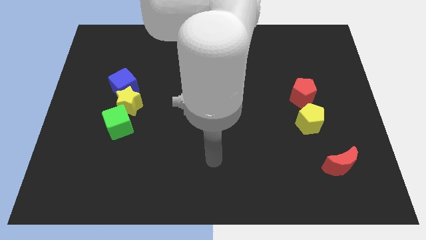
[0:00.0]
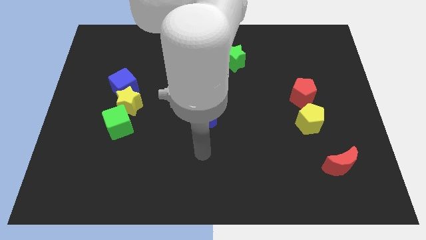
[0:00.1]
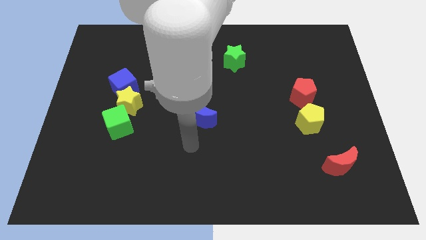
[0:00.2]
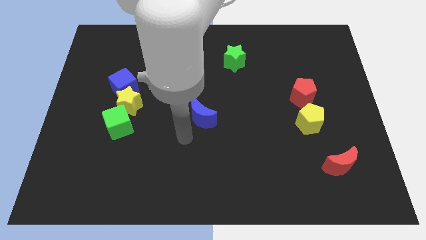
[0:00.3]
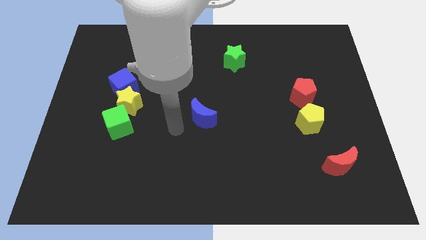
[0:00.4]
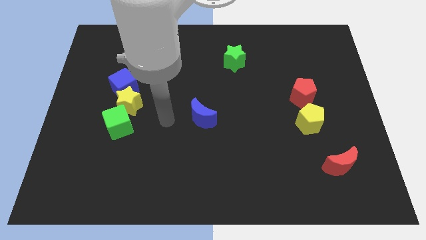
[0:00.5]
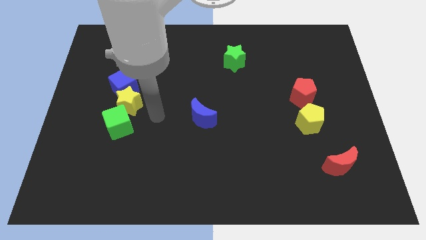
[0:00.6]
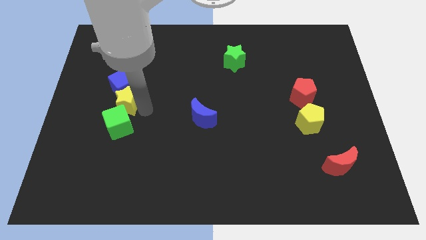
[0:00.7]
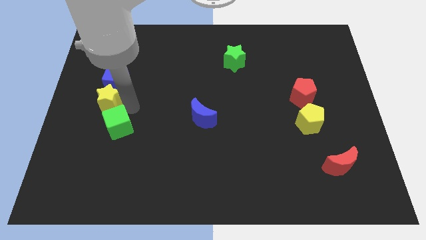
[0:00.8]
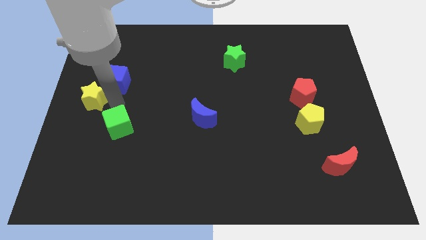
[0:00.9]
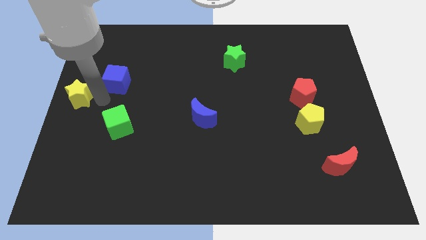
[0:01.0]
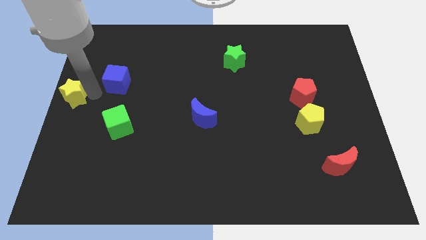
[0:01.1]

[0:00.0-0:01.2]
pull the blue cube apart from the yellow star

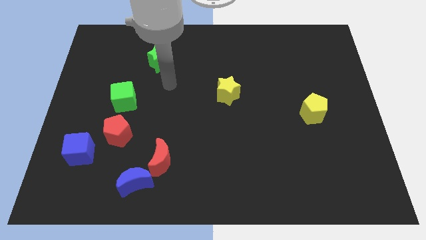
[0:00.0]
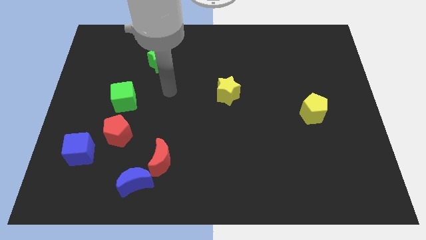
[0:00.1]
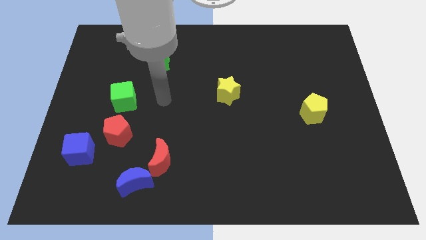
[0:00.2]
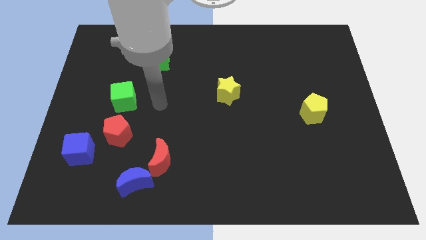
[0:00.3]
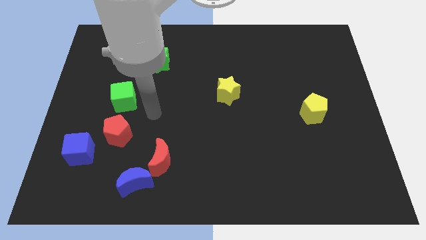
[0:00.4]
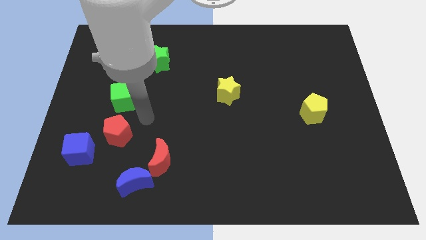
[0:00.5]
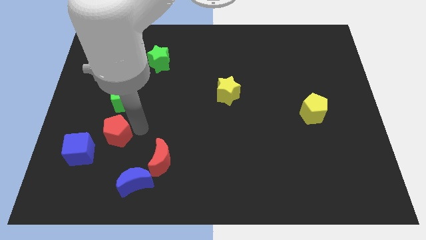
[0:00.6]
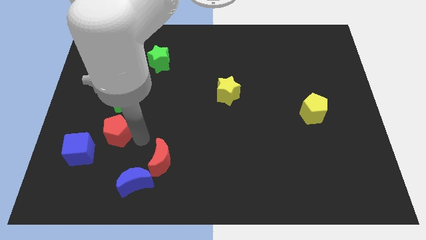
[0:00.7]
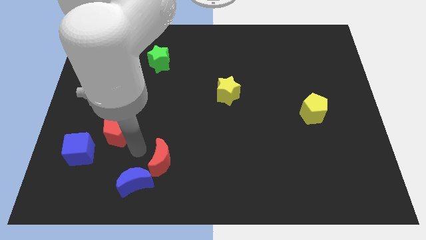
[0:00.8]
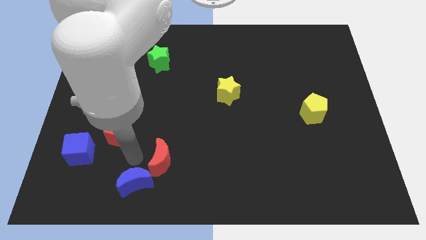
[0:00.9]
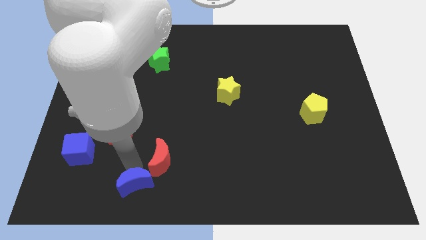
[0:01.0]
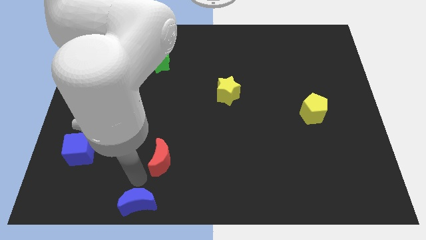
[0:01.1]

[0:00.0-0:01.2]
move the red moon away from the blue moon

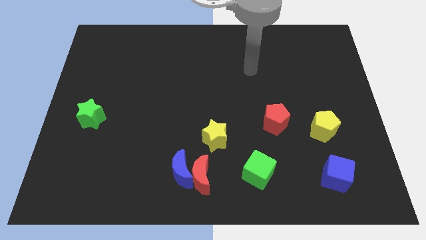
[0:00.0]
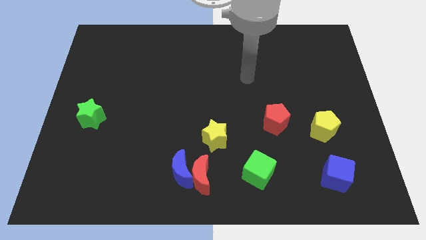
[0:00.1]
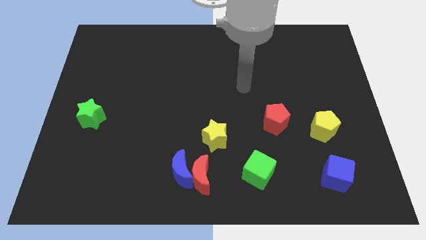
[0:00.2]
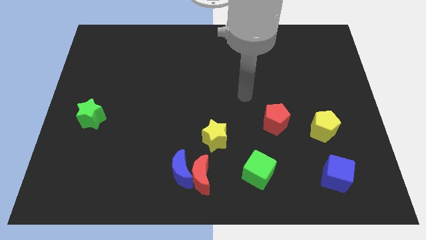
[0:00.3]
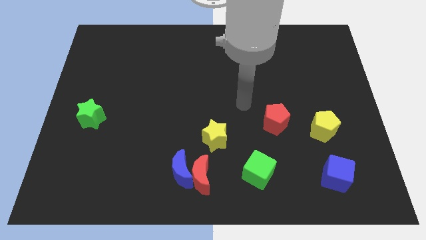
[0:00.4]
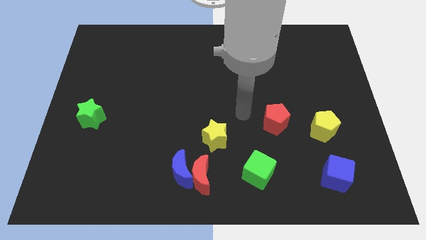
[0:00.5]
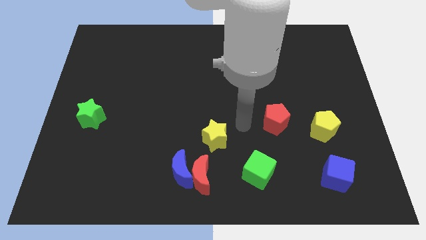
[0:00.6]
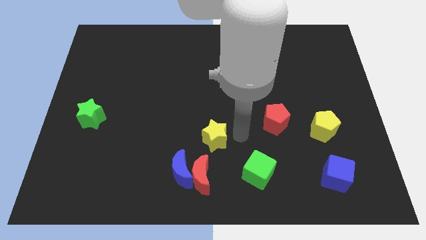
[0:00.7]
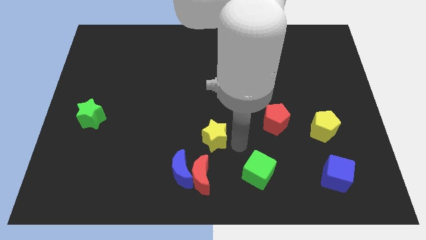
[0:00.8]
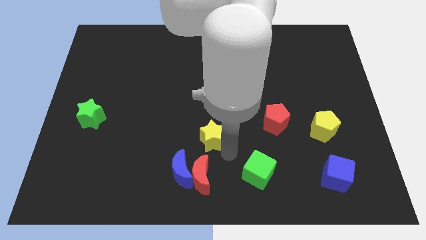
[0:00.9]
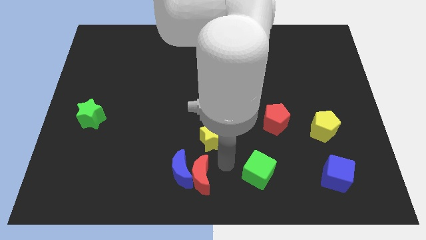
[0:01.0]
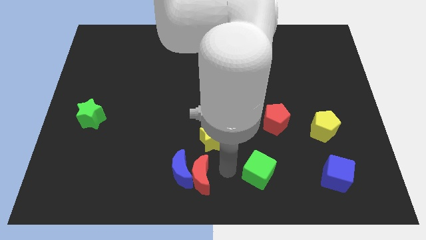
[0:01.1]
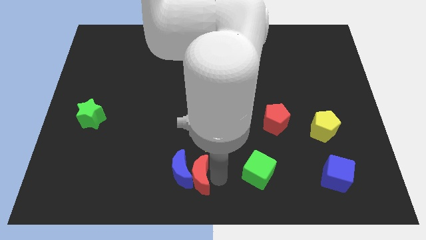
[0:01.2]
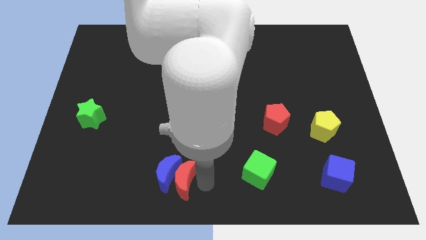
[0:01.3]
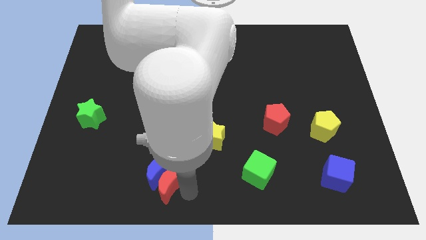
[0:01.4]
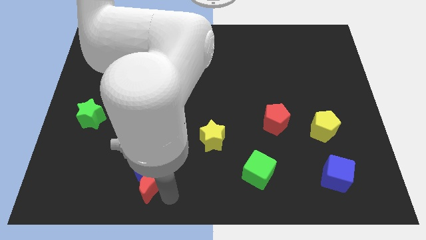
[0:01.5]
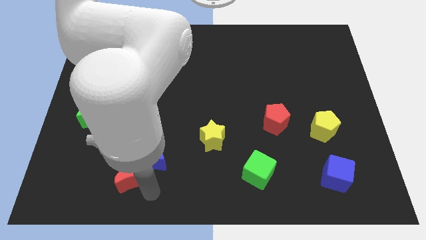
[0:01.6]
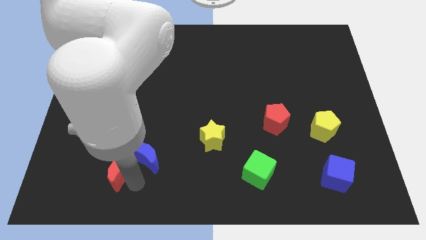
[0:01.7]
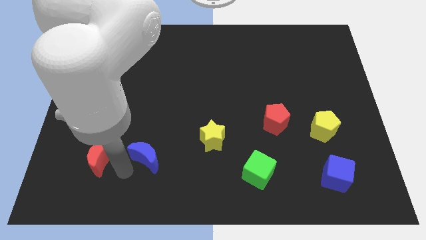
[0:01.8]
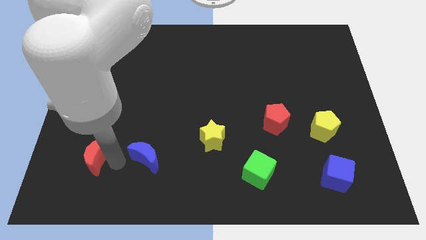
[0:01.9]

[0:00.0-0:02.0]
pull the blue moon apart from the red moon

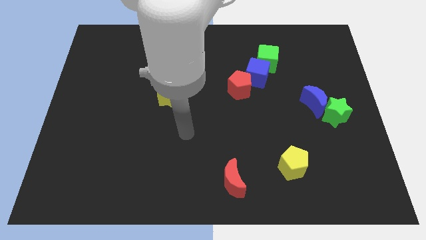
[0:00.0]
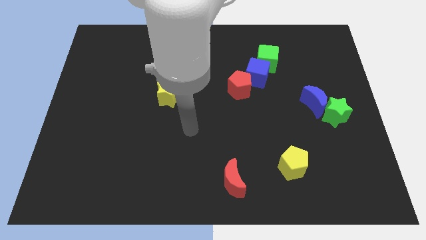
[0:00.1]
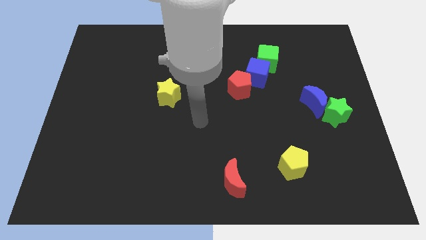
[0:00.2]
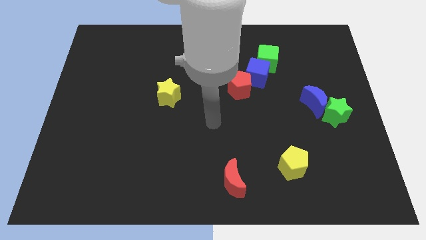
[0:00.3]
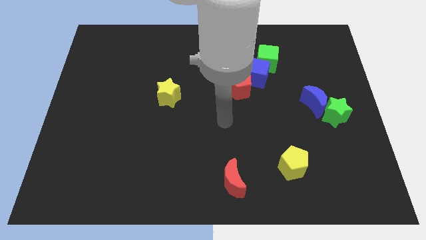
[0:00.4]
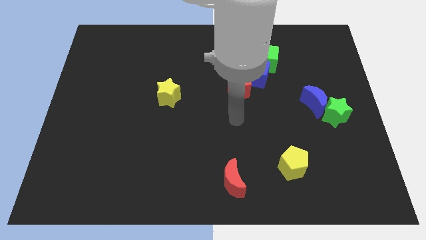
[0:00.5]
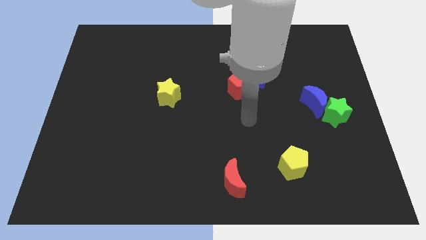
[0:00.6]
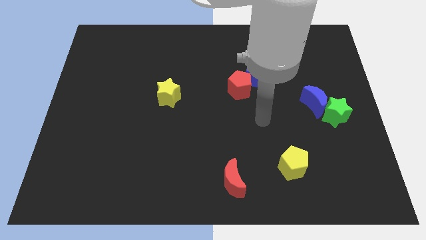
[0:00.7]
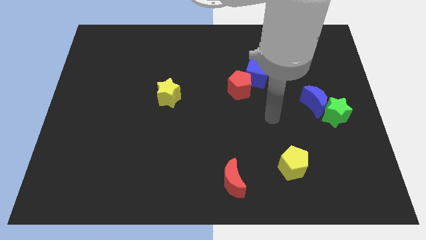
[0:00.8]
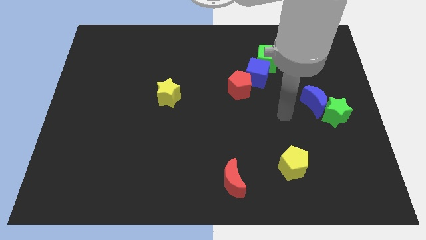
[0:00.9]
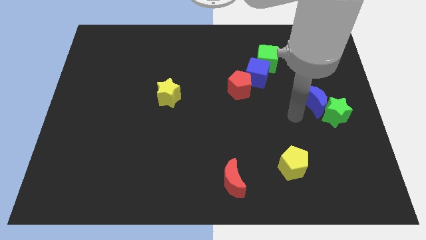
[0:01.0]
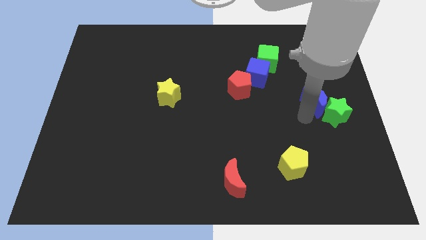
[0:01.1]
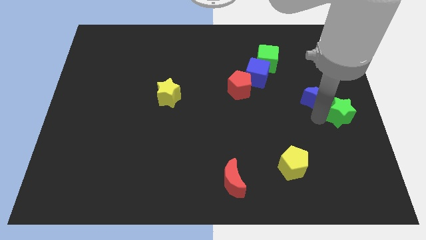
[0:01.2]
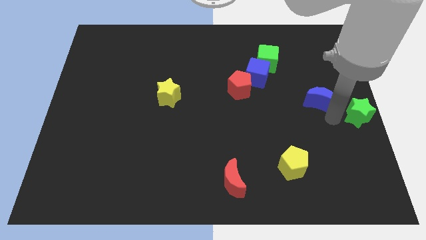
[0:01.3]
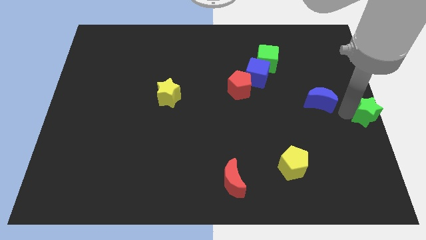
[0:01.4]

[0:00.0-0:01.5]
separate the blue moon from the green star

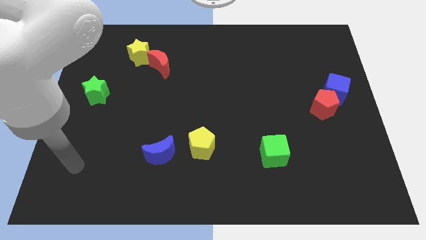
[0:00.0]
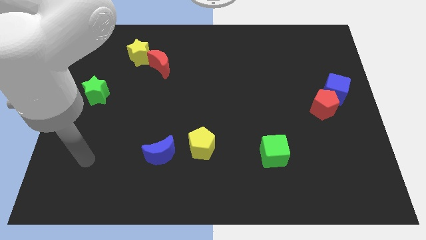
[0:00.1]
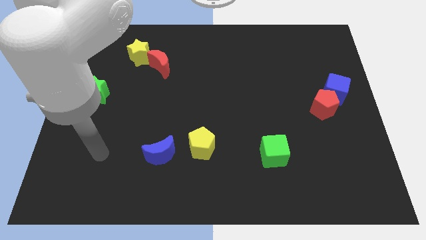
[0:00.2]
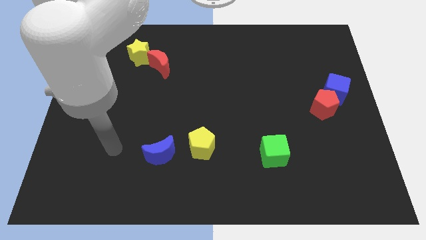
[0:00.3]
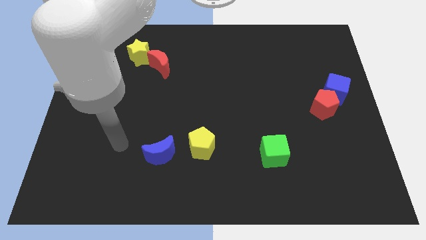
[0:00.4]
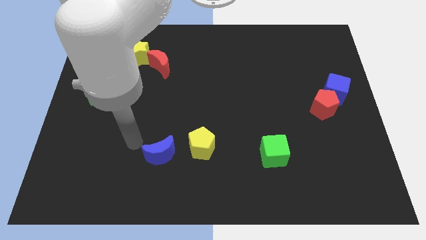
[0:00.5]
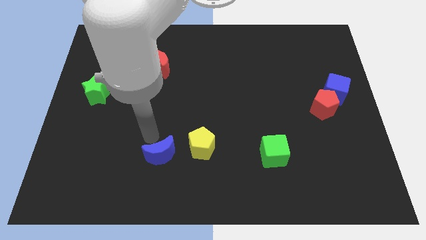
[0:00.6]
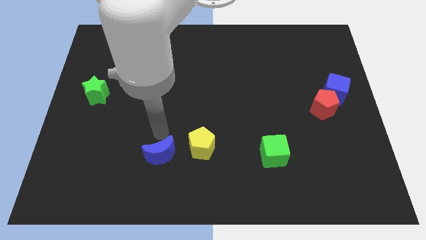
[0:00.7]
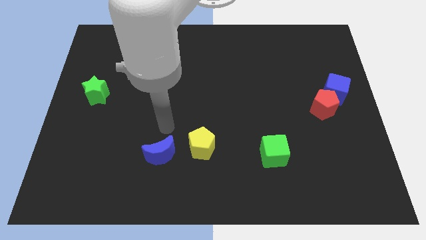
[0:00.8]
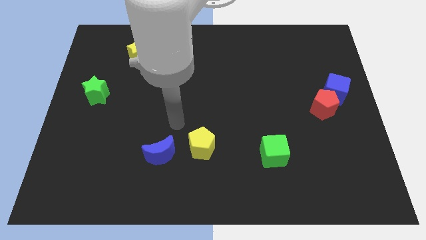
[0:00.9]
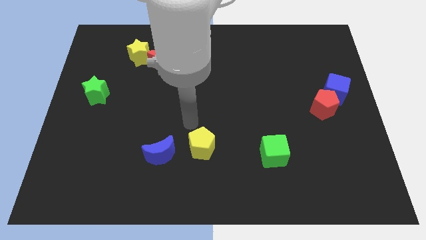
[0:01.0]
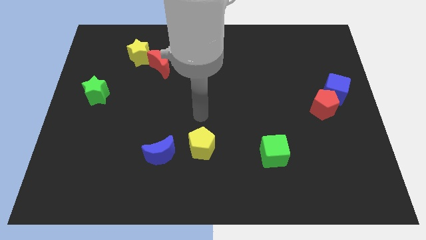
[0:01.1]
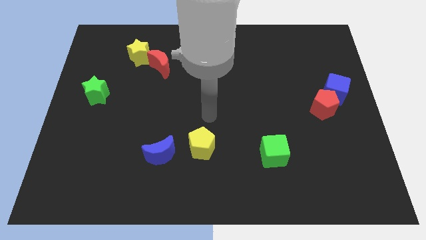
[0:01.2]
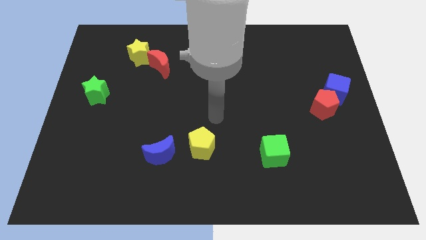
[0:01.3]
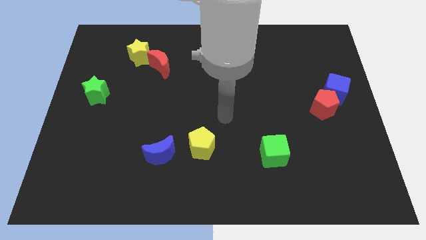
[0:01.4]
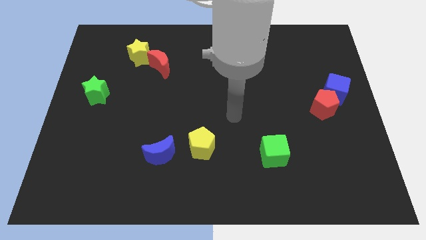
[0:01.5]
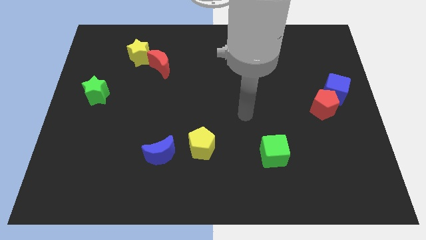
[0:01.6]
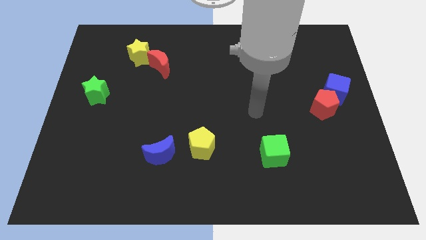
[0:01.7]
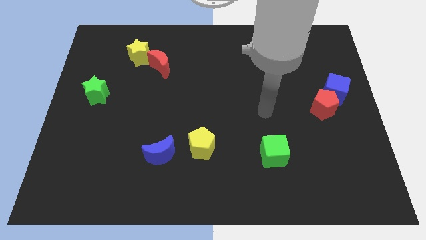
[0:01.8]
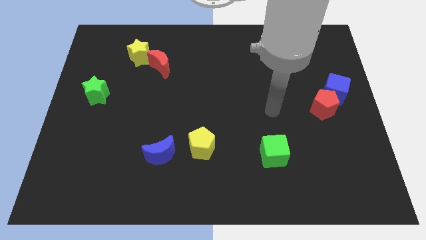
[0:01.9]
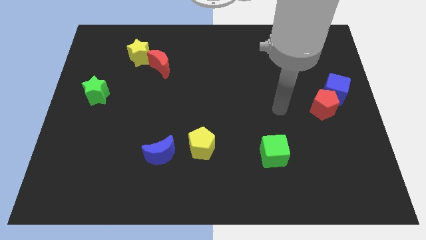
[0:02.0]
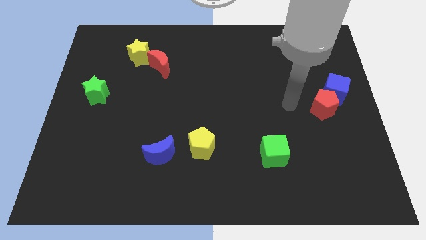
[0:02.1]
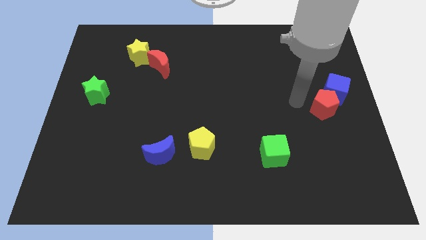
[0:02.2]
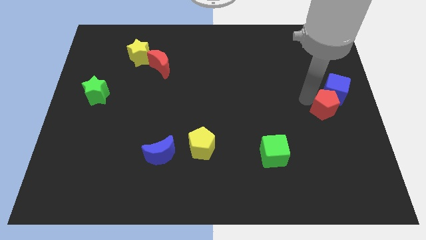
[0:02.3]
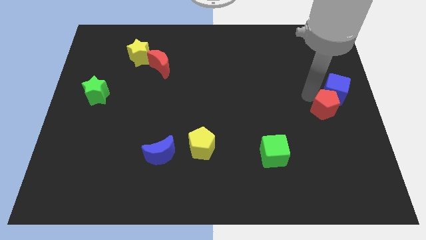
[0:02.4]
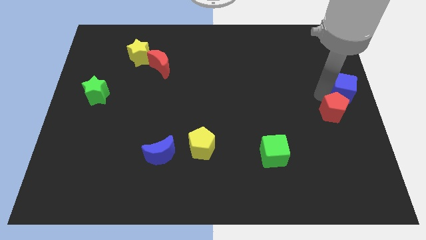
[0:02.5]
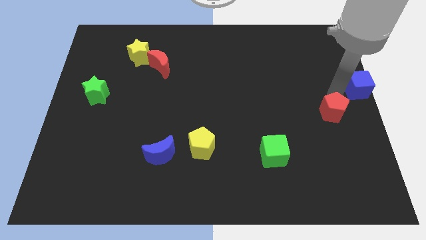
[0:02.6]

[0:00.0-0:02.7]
separate the red pentagon from the blue cube

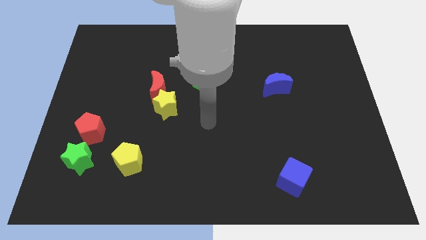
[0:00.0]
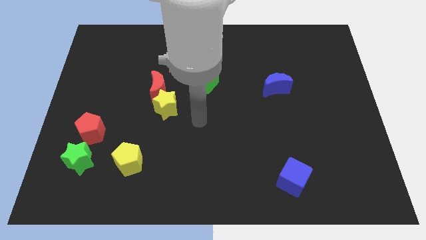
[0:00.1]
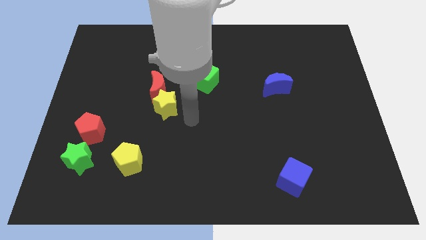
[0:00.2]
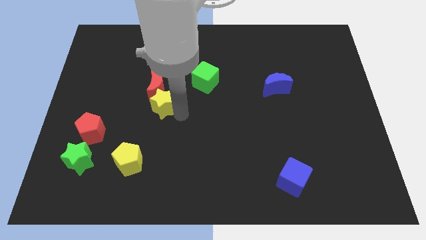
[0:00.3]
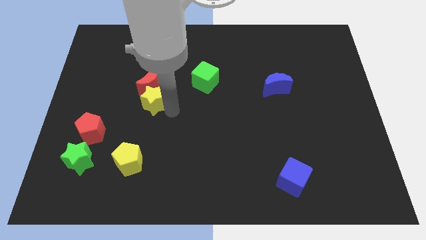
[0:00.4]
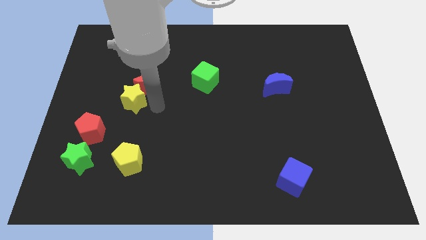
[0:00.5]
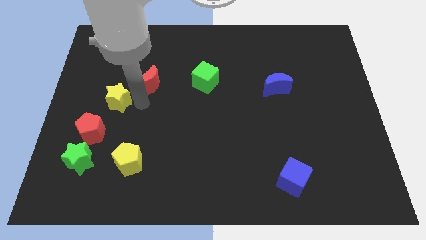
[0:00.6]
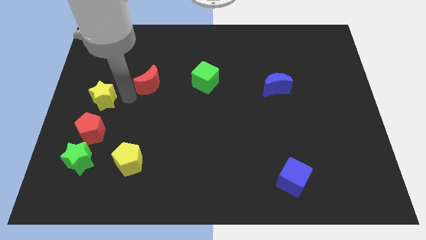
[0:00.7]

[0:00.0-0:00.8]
separate the red moon from the yellow star

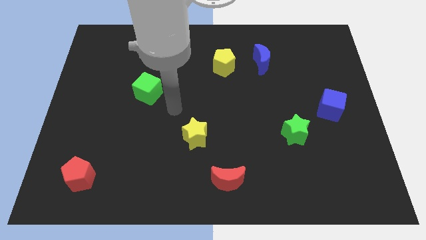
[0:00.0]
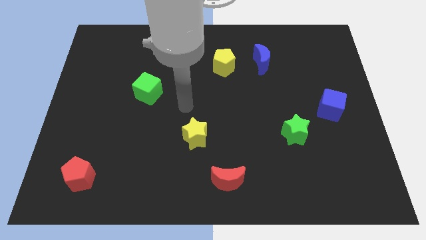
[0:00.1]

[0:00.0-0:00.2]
separate the blue moon from the yellow pentagon
